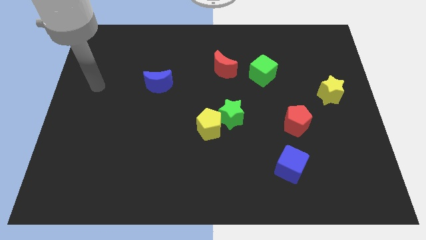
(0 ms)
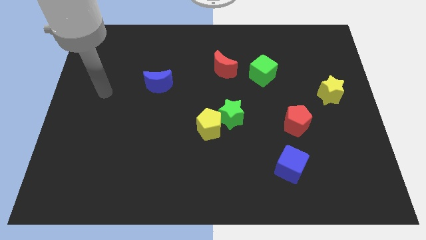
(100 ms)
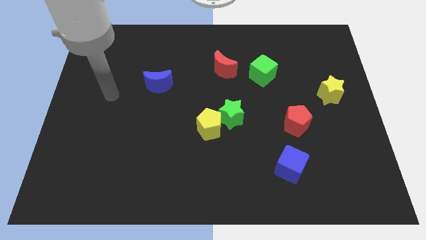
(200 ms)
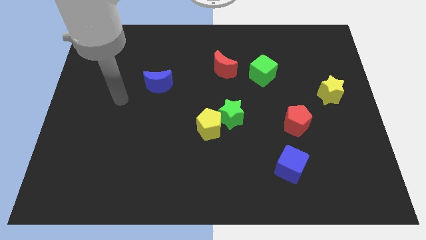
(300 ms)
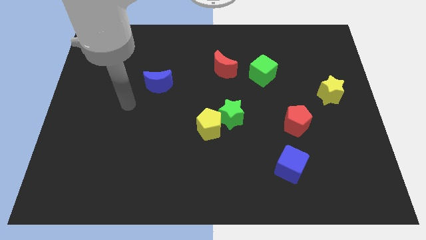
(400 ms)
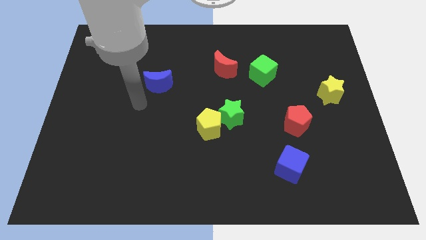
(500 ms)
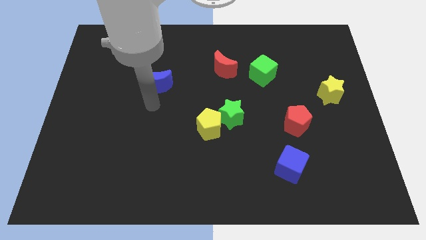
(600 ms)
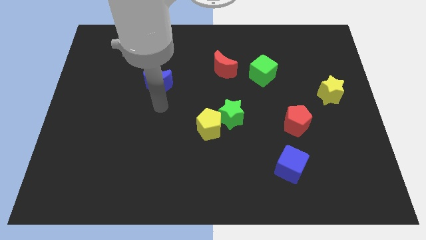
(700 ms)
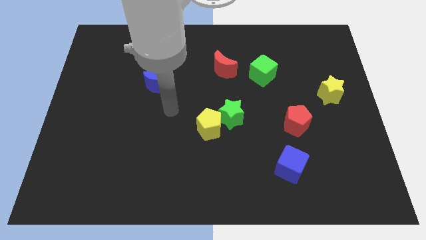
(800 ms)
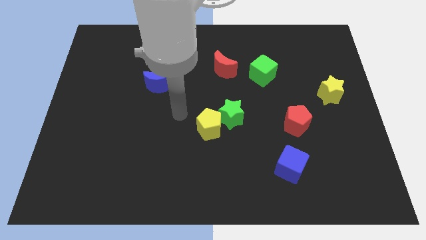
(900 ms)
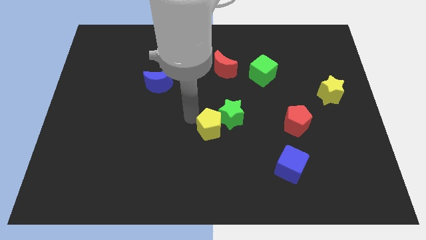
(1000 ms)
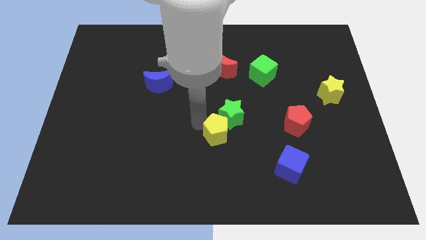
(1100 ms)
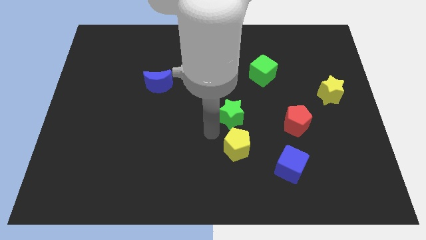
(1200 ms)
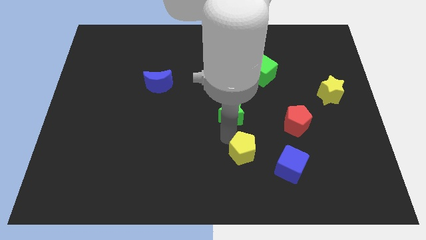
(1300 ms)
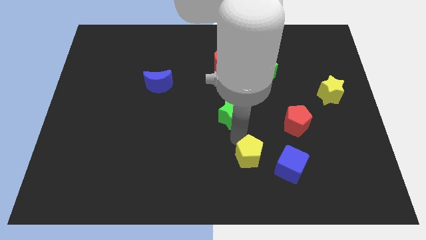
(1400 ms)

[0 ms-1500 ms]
separate the green star from the yellow pentagon

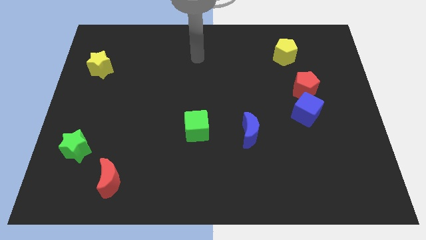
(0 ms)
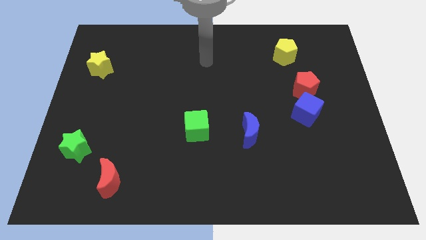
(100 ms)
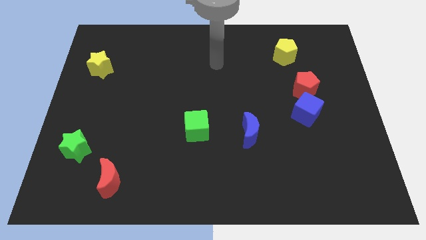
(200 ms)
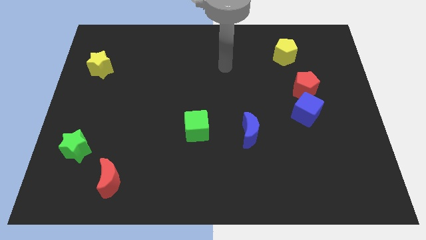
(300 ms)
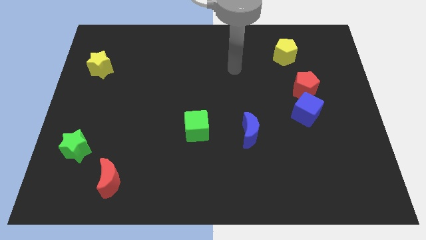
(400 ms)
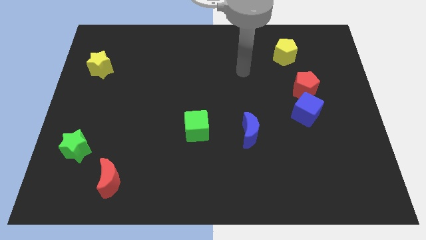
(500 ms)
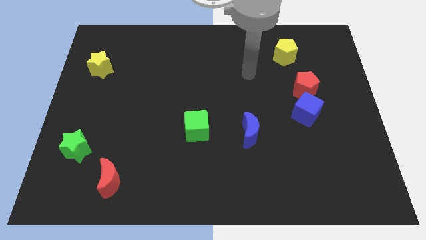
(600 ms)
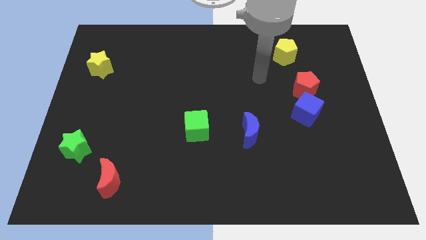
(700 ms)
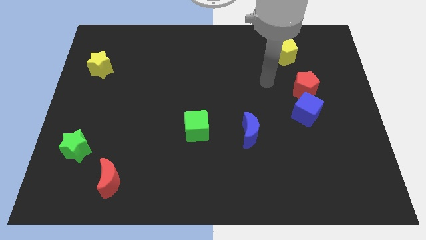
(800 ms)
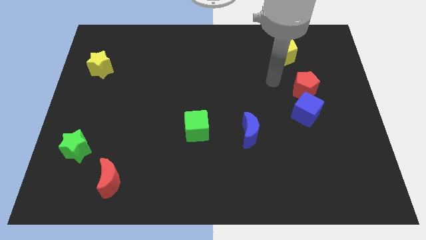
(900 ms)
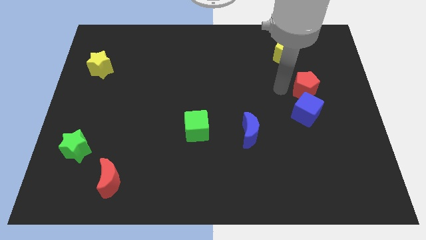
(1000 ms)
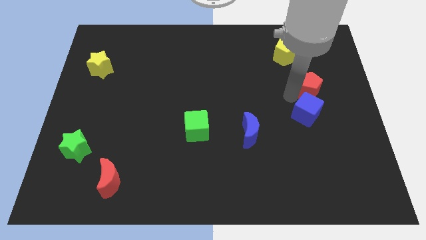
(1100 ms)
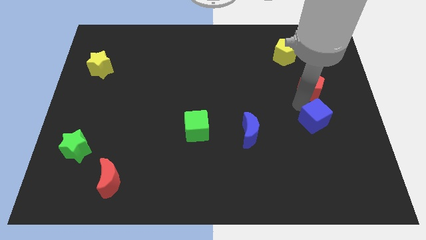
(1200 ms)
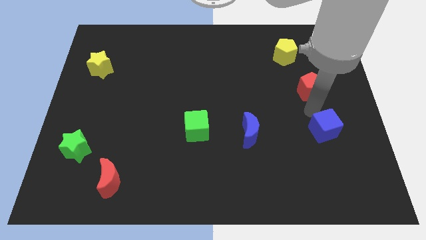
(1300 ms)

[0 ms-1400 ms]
pull the red pentagon apart from the blue cube

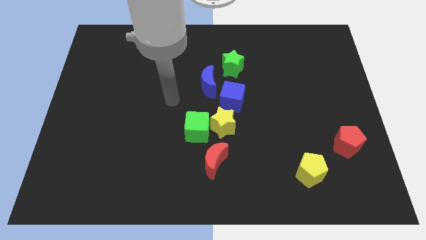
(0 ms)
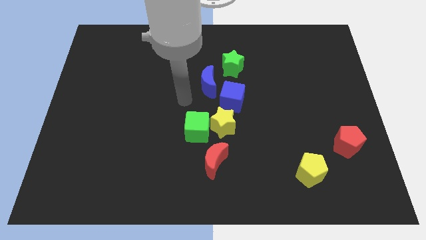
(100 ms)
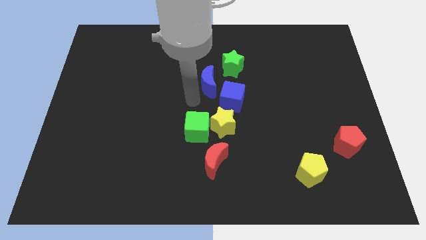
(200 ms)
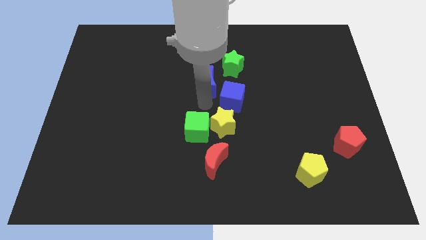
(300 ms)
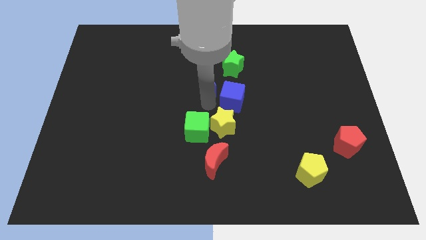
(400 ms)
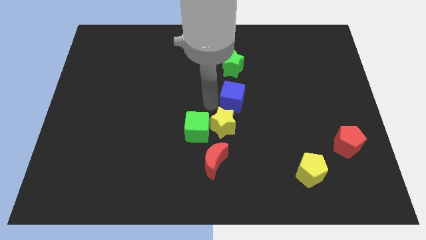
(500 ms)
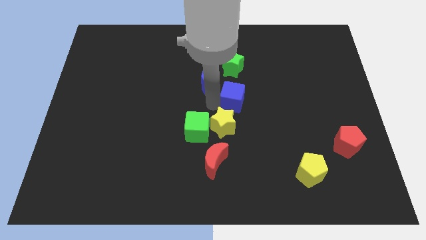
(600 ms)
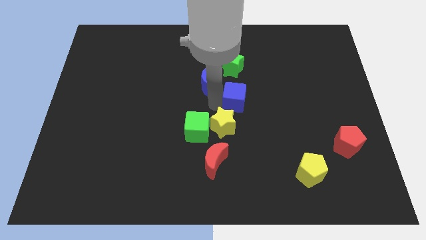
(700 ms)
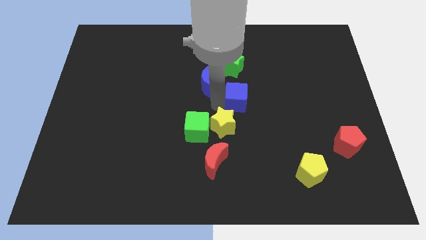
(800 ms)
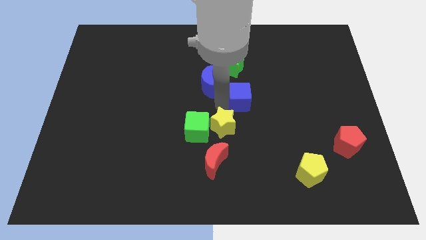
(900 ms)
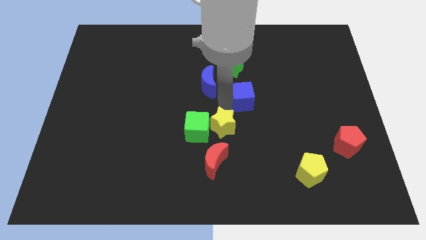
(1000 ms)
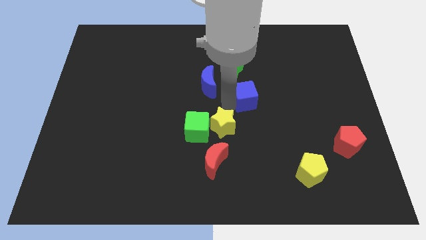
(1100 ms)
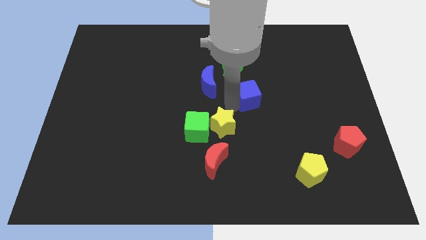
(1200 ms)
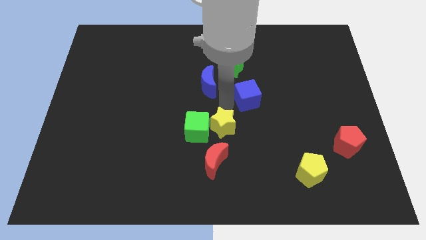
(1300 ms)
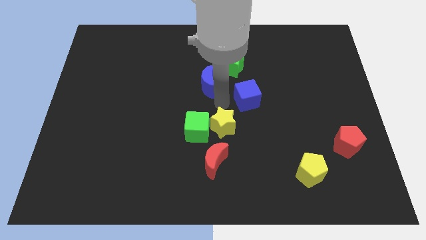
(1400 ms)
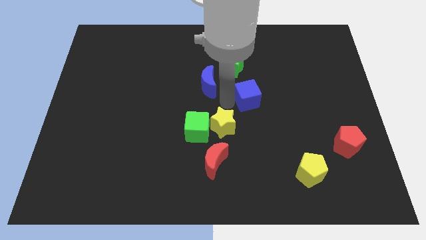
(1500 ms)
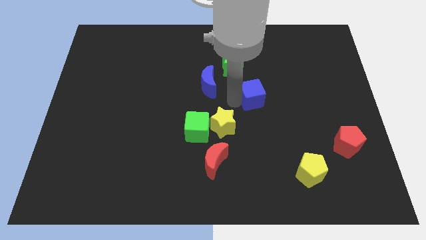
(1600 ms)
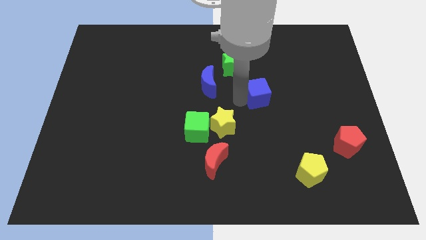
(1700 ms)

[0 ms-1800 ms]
pull the blue cube apart from the blue moon and yellow star

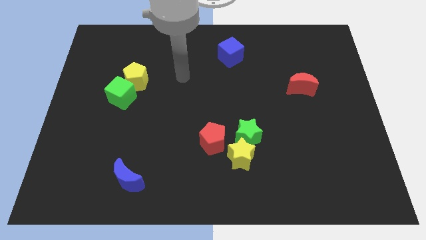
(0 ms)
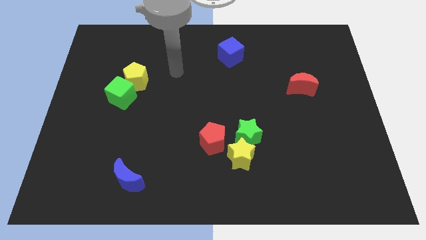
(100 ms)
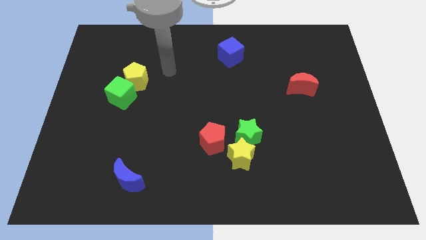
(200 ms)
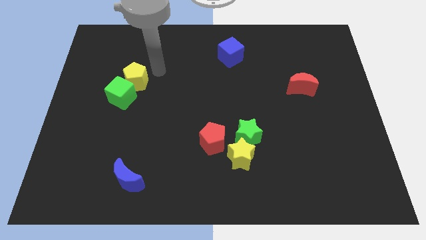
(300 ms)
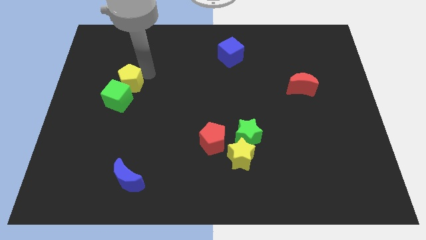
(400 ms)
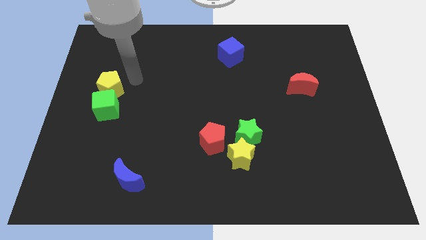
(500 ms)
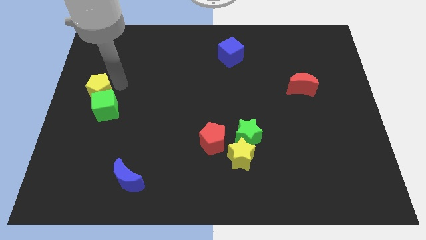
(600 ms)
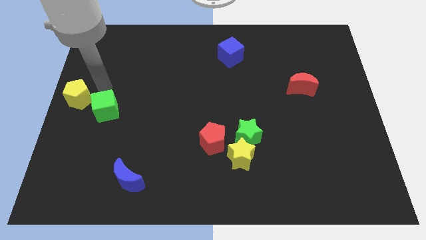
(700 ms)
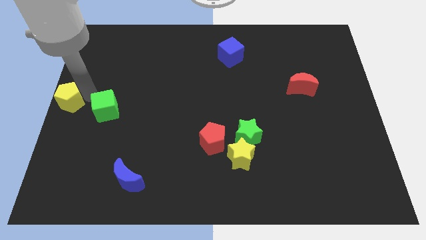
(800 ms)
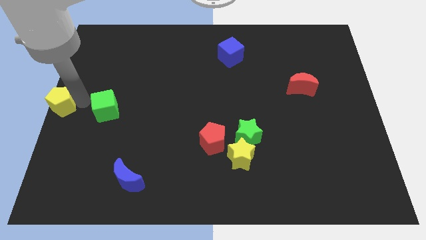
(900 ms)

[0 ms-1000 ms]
separate the green cube from the yellow pentagon

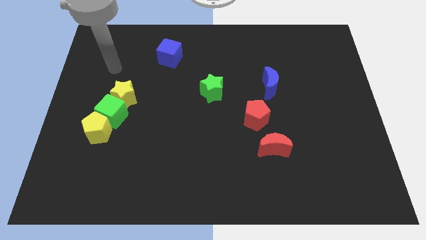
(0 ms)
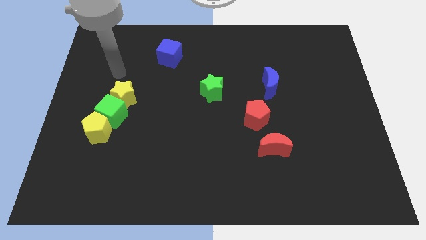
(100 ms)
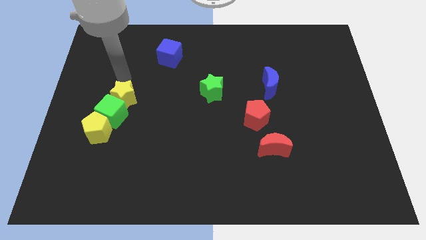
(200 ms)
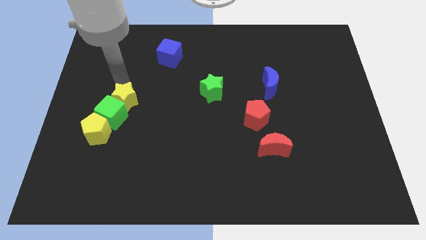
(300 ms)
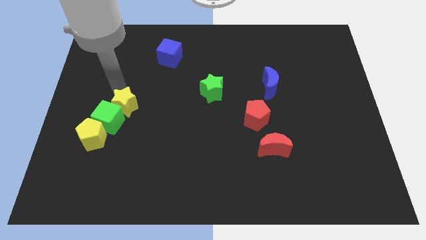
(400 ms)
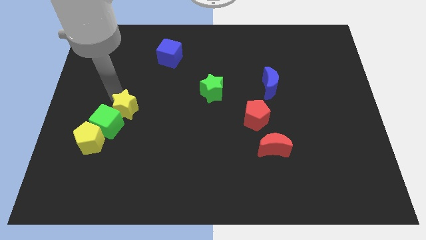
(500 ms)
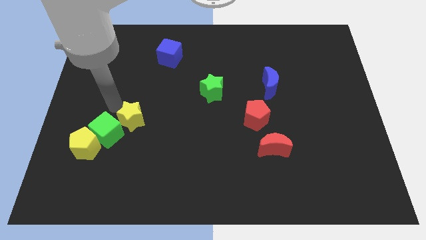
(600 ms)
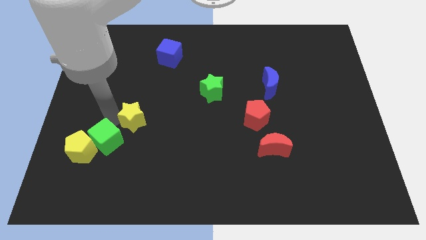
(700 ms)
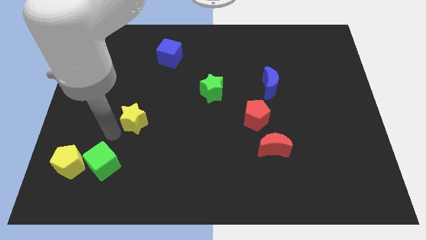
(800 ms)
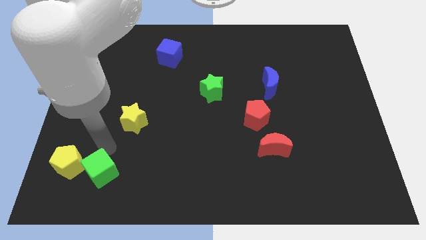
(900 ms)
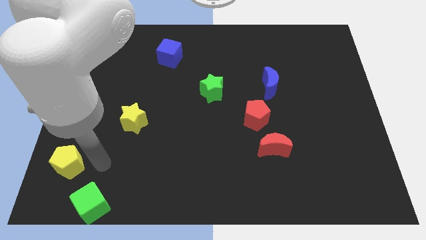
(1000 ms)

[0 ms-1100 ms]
separate the yellow pentagon from the green cube

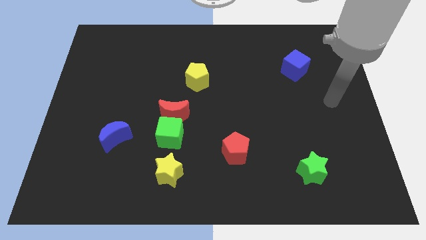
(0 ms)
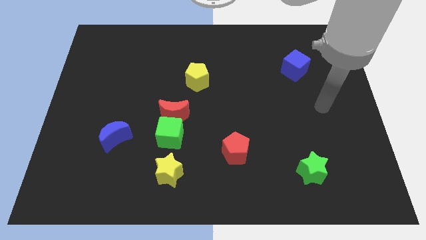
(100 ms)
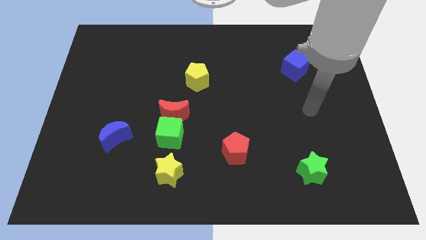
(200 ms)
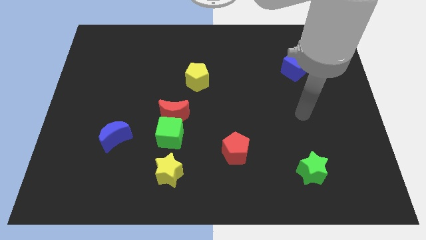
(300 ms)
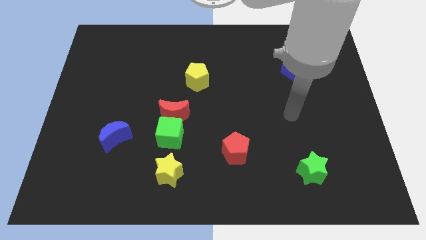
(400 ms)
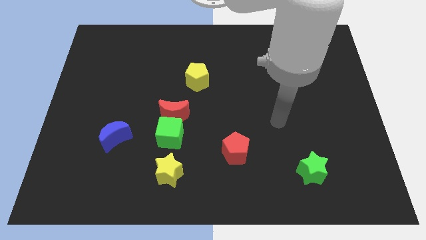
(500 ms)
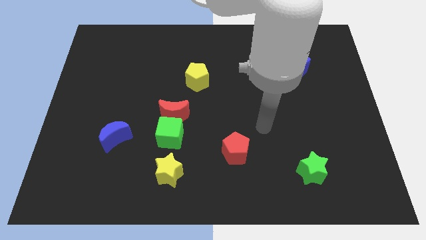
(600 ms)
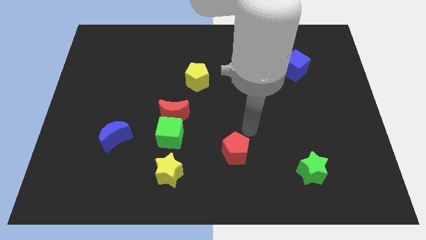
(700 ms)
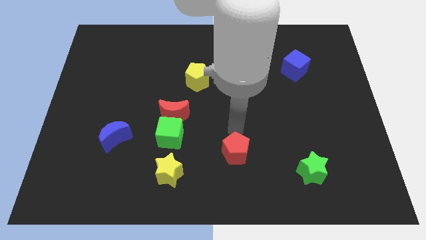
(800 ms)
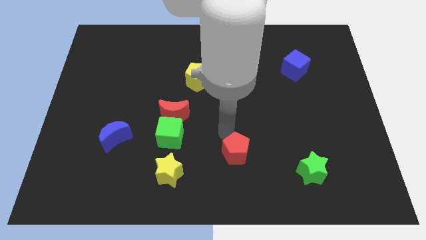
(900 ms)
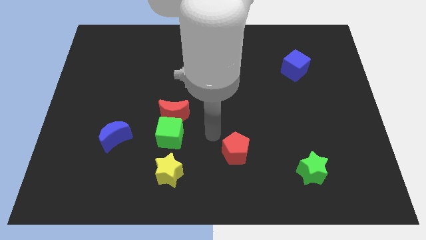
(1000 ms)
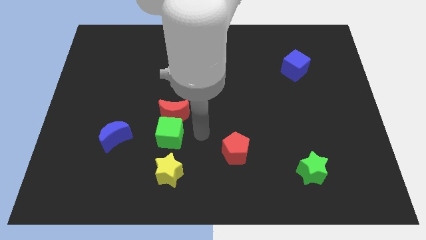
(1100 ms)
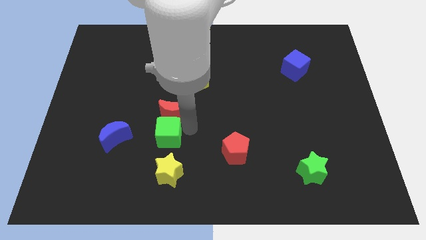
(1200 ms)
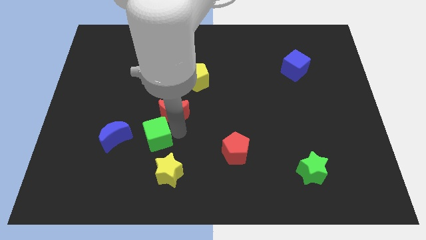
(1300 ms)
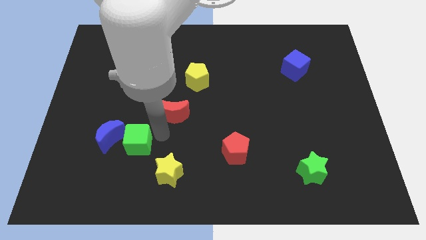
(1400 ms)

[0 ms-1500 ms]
move the red moon away from the green cube

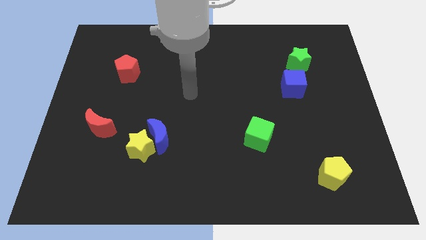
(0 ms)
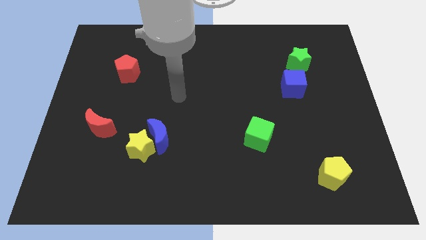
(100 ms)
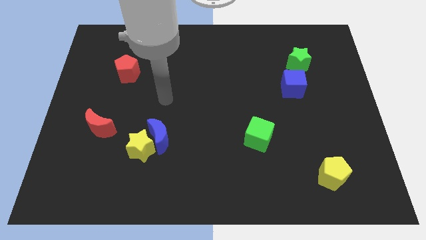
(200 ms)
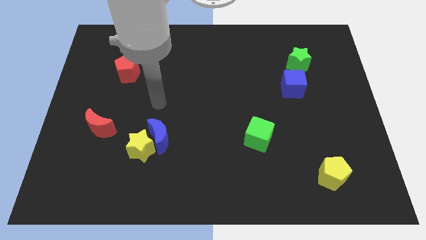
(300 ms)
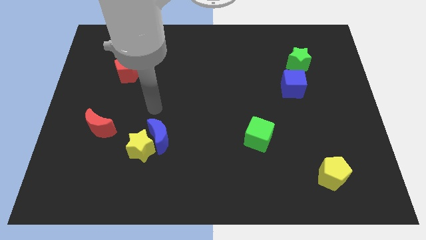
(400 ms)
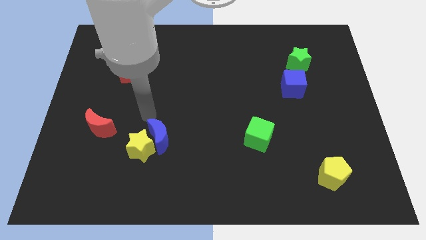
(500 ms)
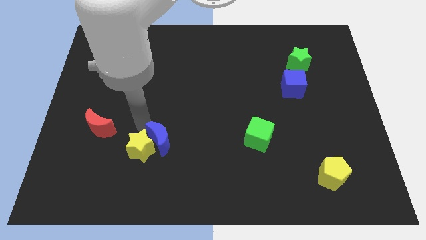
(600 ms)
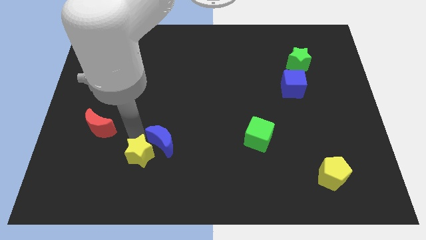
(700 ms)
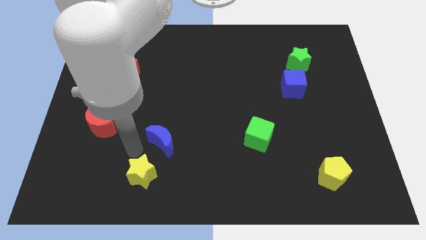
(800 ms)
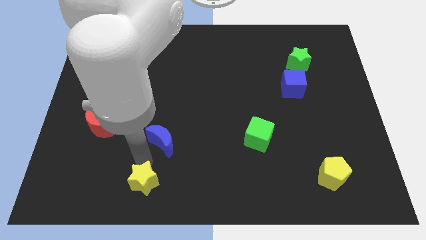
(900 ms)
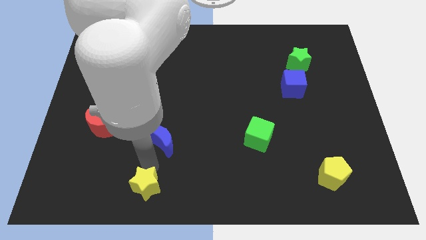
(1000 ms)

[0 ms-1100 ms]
separate the blue moon from the yellow star
